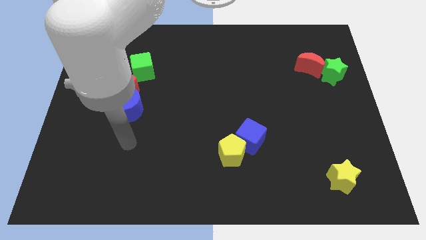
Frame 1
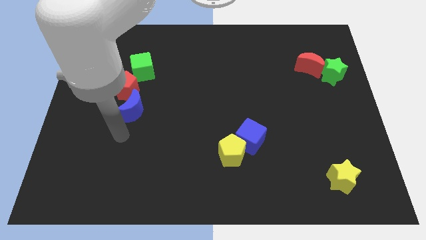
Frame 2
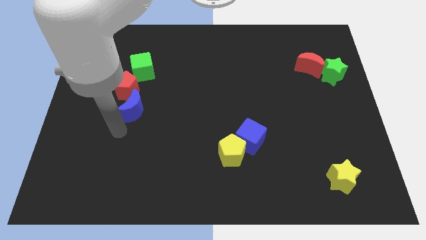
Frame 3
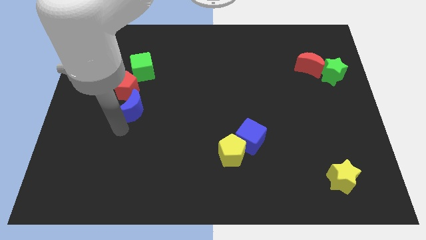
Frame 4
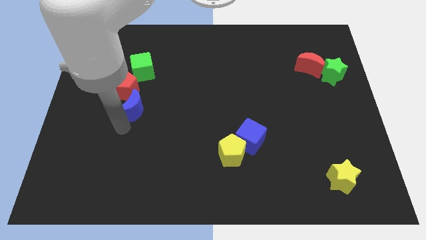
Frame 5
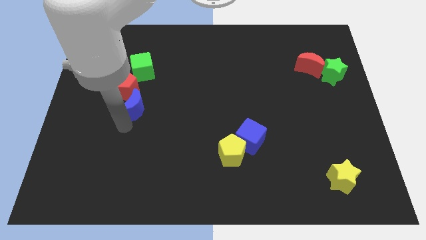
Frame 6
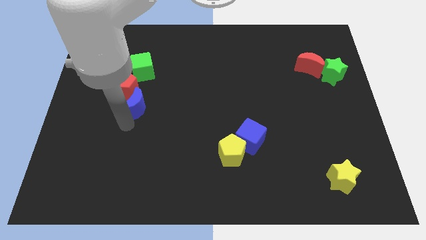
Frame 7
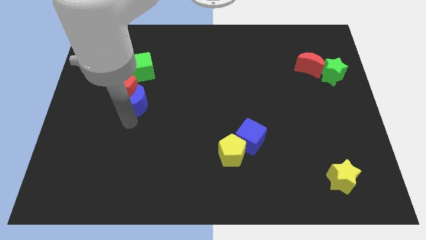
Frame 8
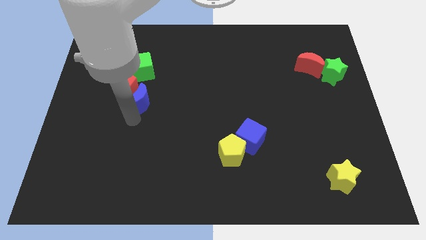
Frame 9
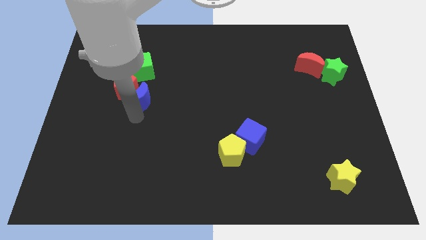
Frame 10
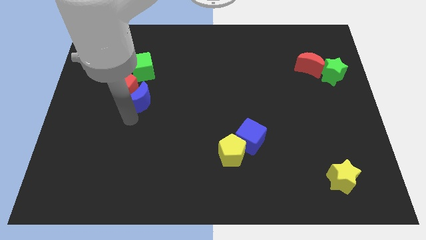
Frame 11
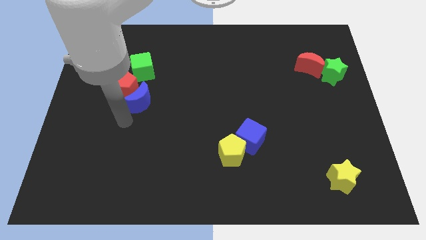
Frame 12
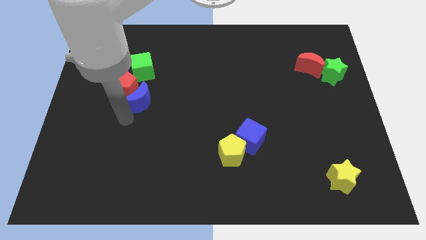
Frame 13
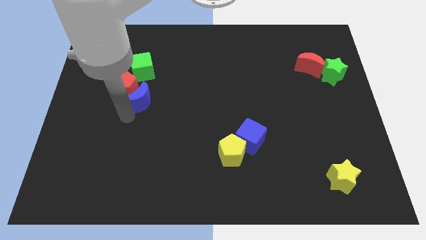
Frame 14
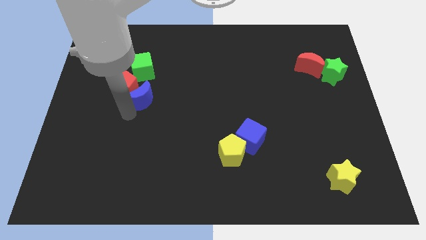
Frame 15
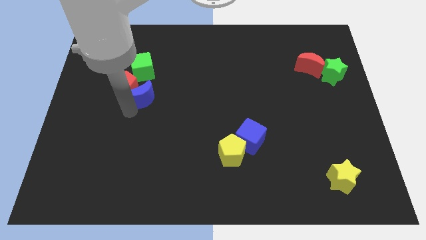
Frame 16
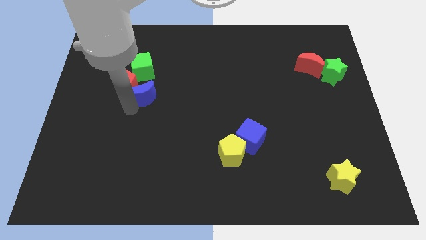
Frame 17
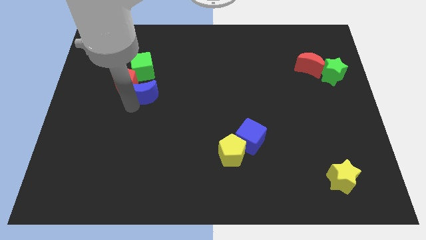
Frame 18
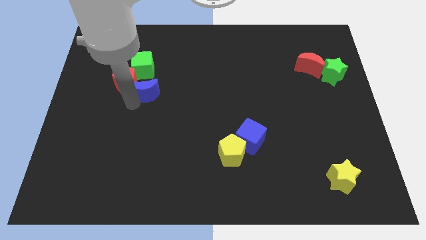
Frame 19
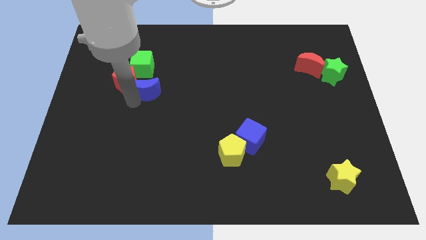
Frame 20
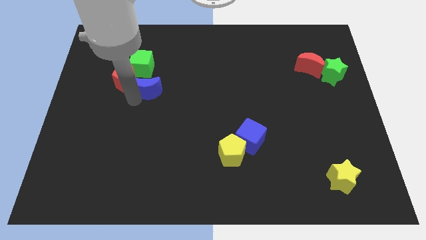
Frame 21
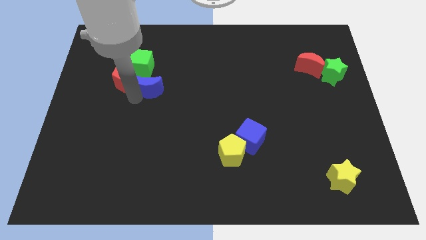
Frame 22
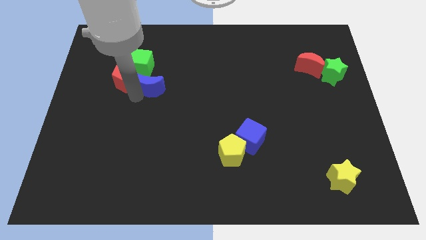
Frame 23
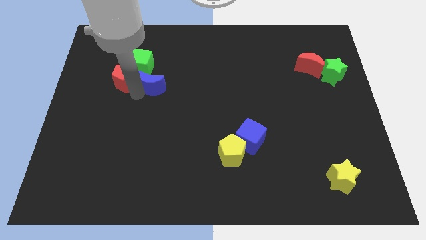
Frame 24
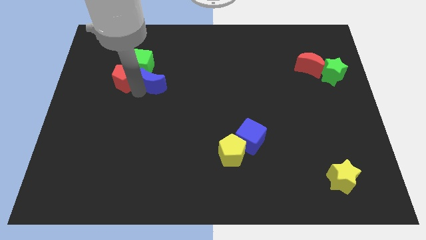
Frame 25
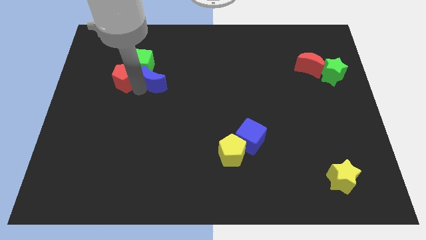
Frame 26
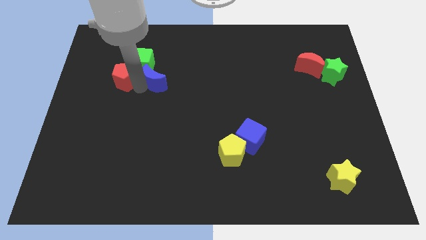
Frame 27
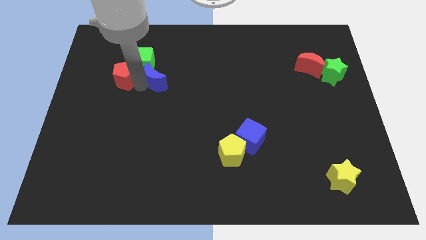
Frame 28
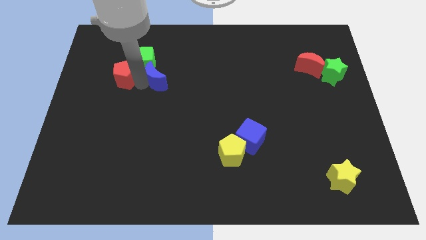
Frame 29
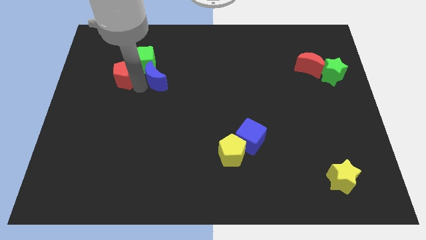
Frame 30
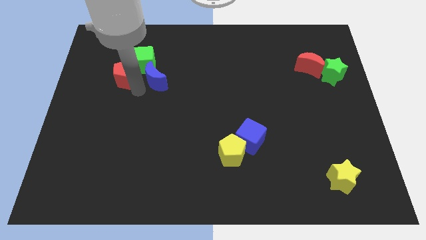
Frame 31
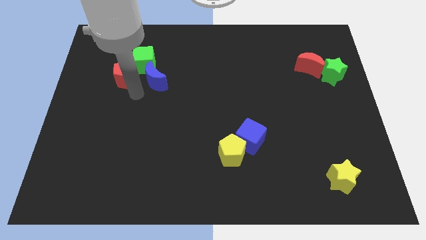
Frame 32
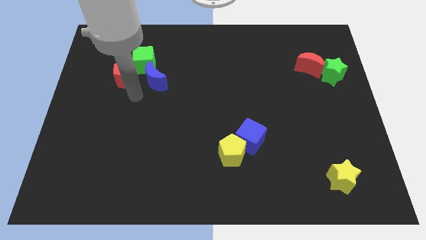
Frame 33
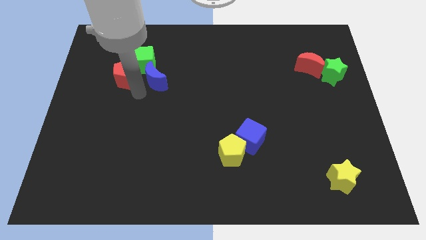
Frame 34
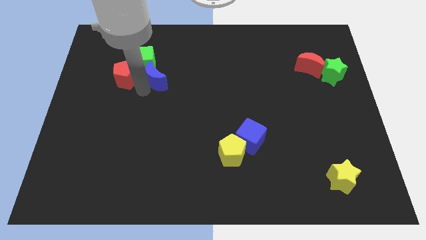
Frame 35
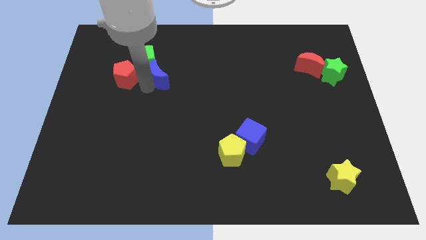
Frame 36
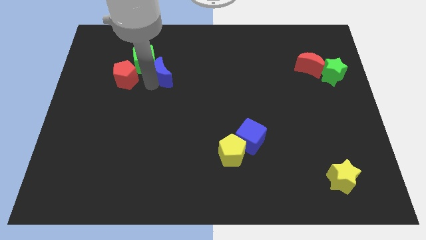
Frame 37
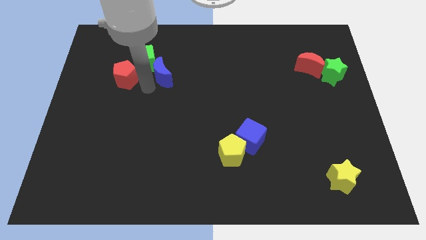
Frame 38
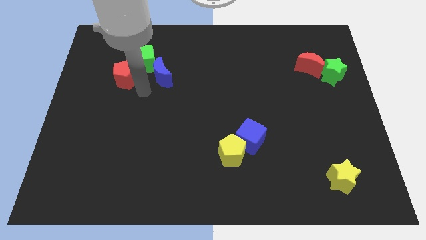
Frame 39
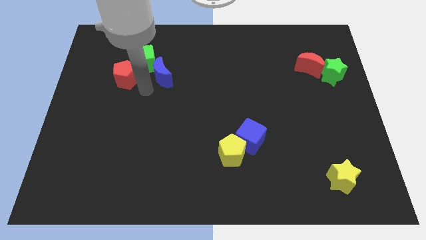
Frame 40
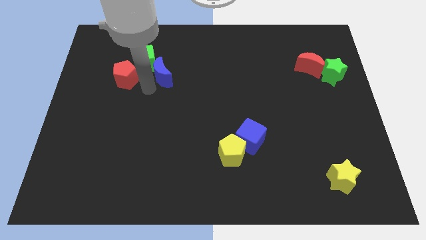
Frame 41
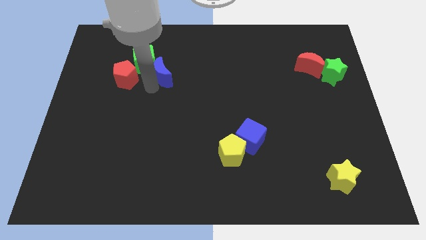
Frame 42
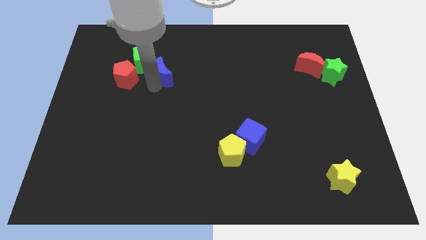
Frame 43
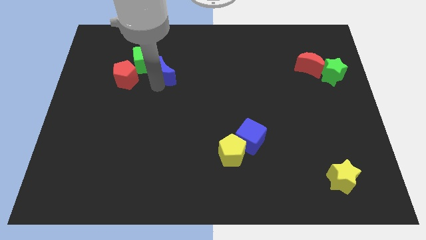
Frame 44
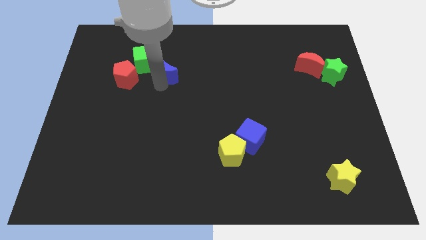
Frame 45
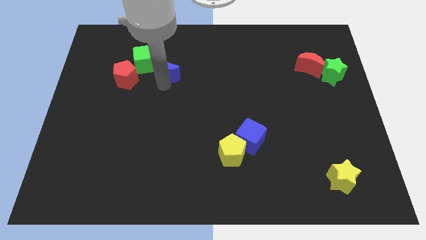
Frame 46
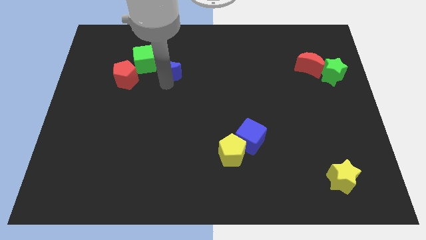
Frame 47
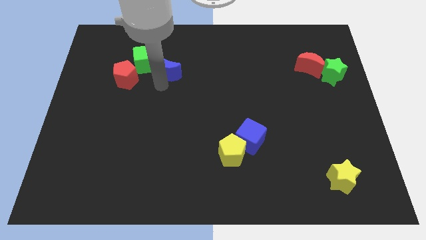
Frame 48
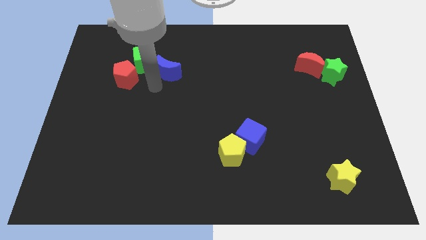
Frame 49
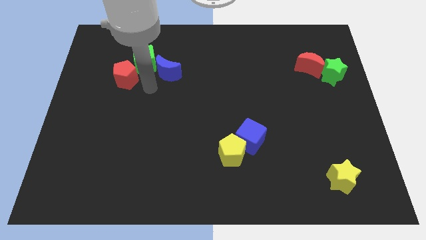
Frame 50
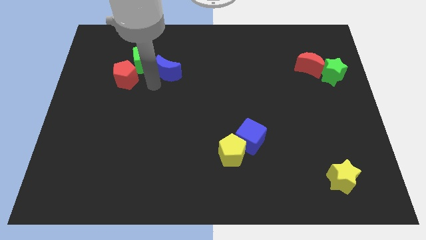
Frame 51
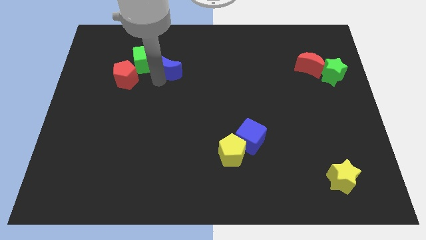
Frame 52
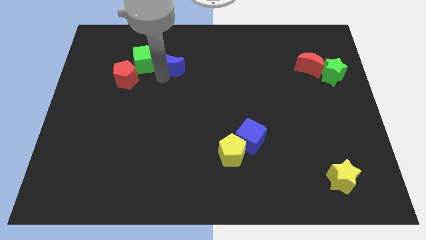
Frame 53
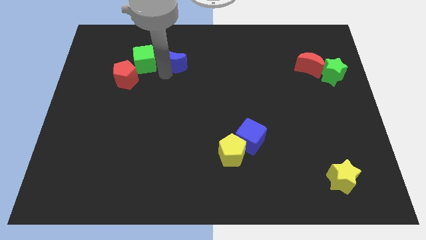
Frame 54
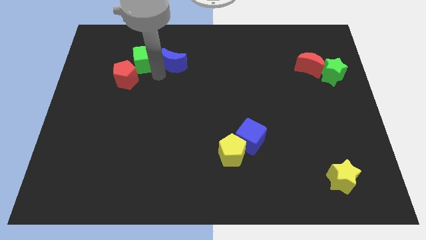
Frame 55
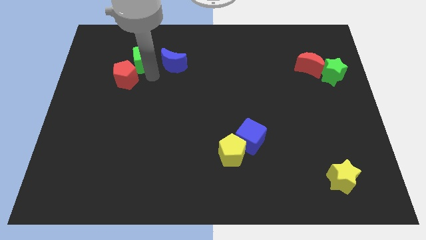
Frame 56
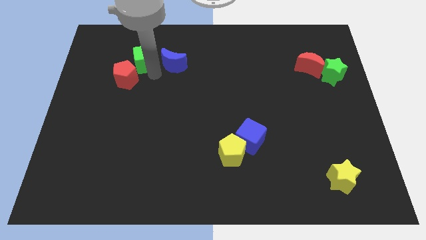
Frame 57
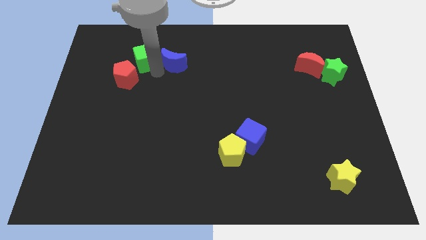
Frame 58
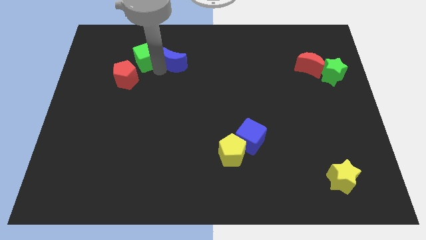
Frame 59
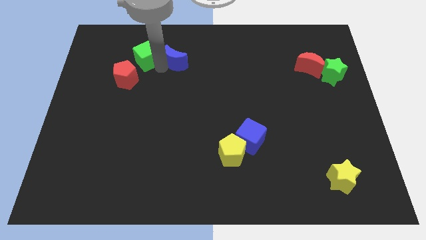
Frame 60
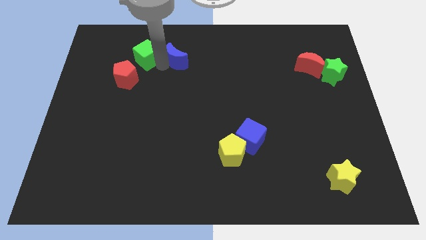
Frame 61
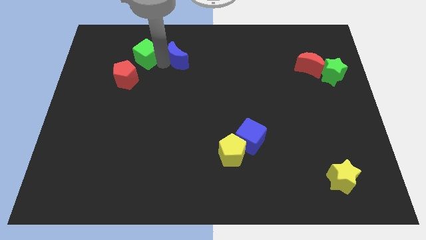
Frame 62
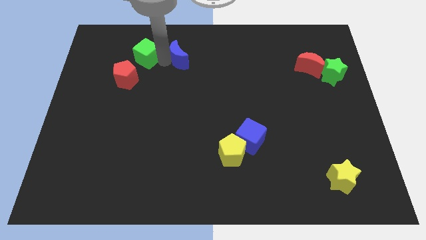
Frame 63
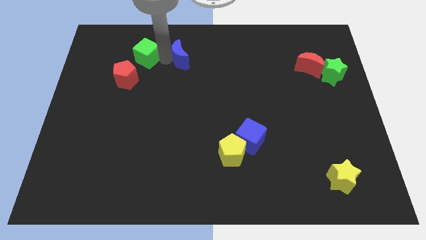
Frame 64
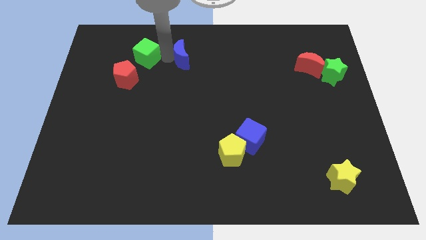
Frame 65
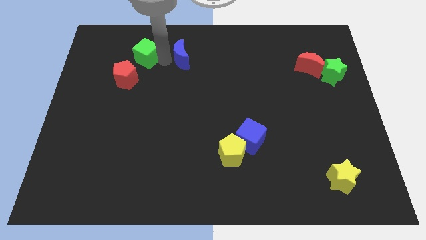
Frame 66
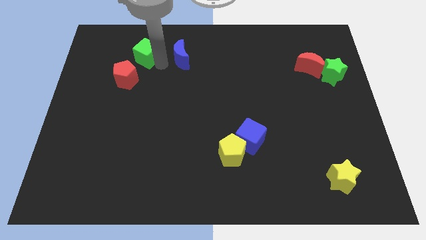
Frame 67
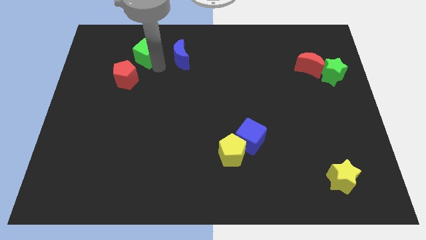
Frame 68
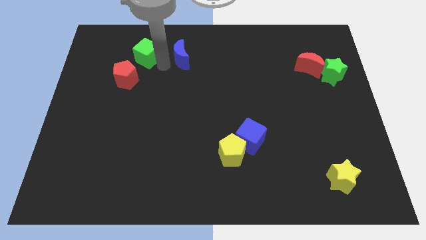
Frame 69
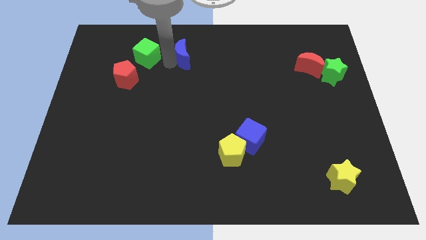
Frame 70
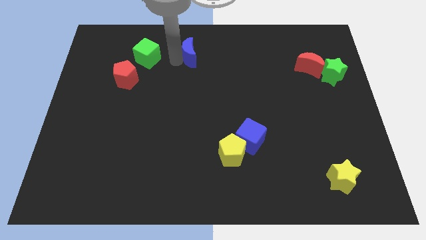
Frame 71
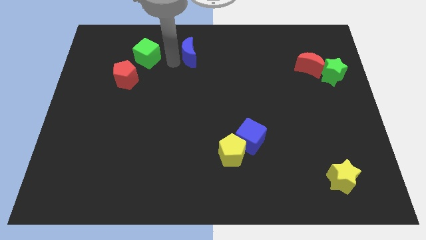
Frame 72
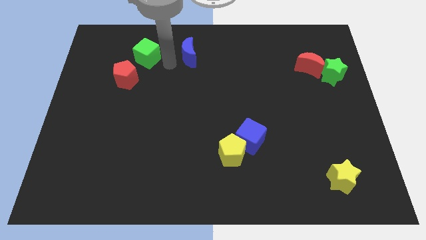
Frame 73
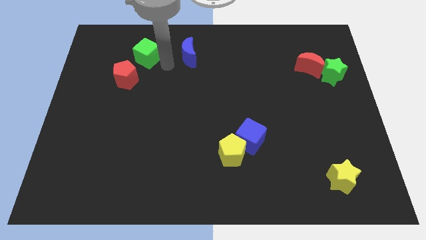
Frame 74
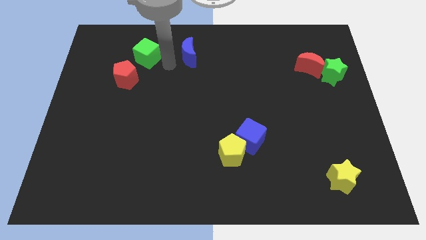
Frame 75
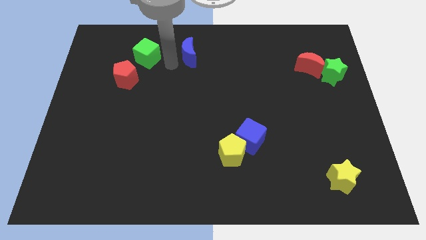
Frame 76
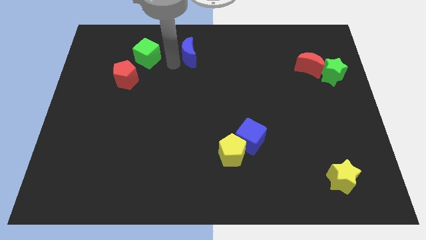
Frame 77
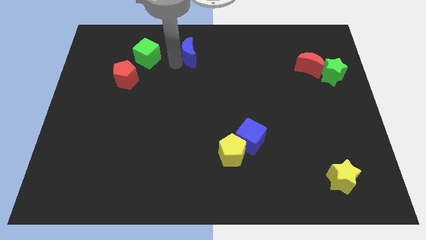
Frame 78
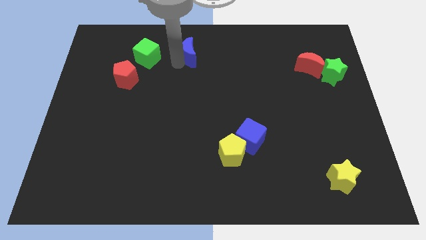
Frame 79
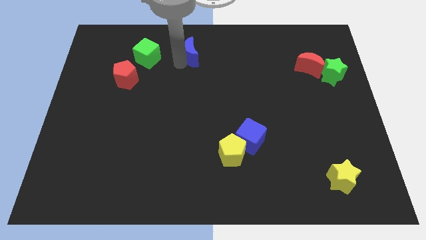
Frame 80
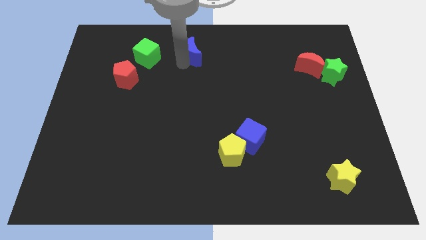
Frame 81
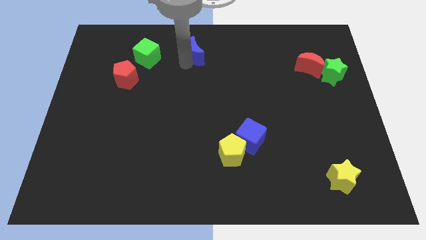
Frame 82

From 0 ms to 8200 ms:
move the blue moon to the top
